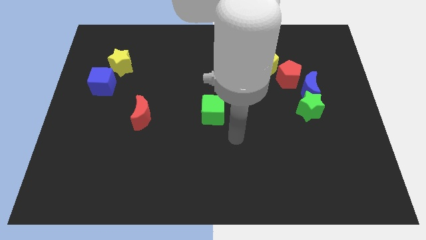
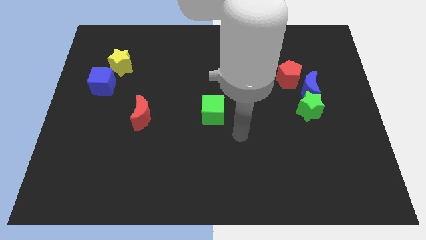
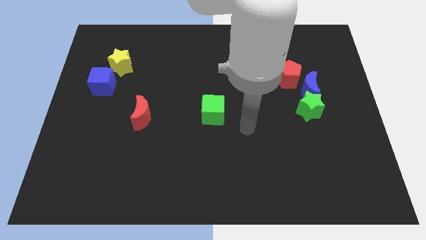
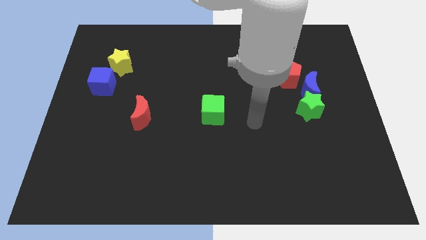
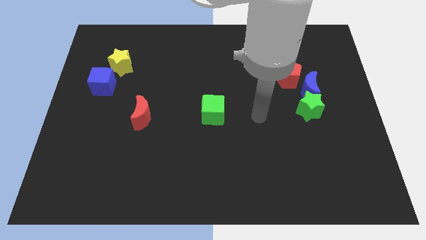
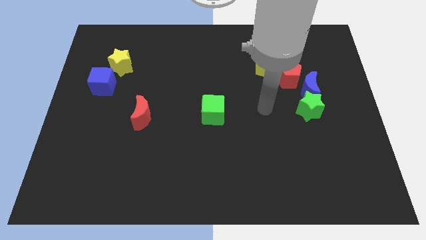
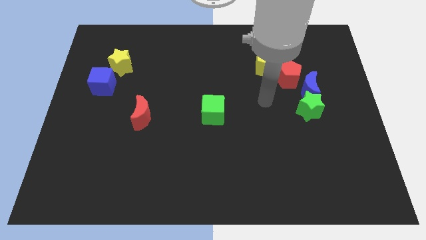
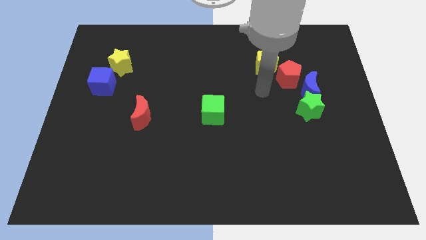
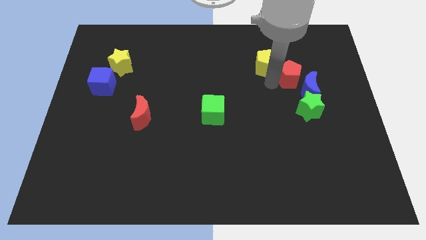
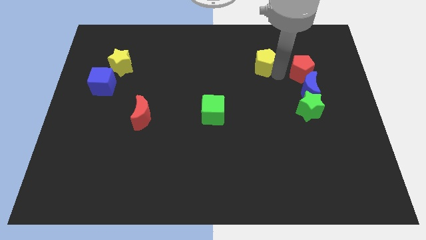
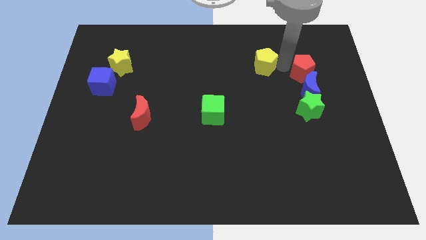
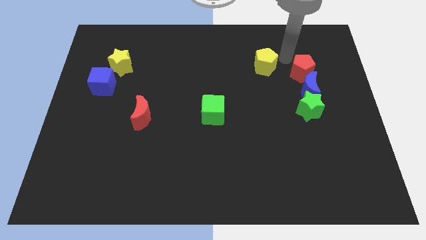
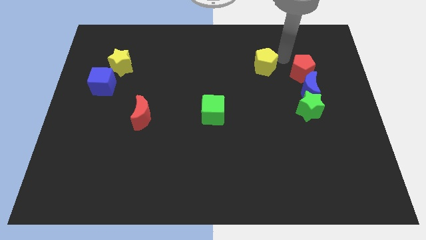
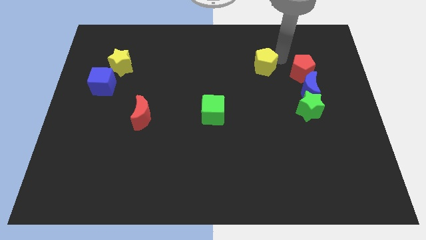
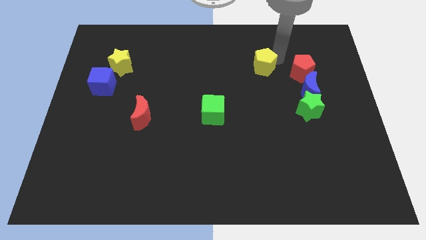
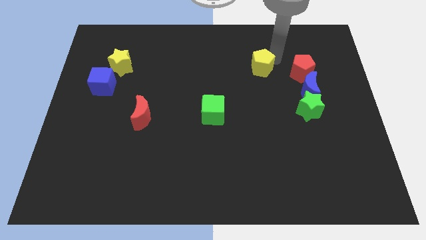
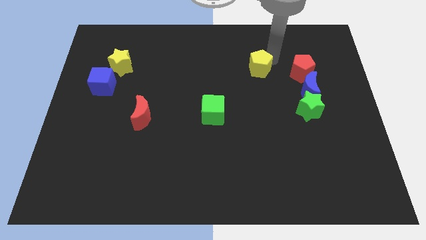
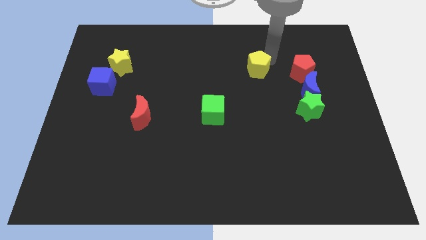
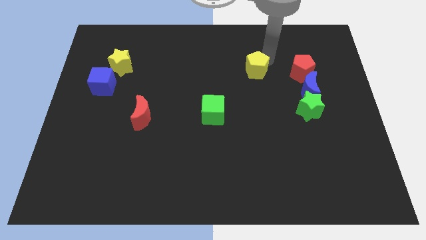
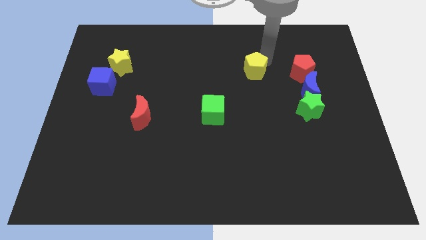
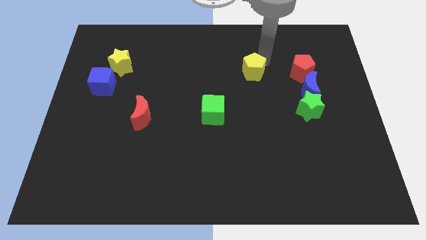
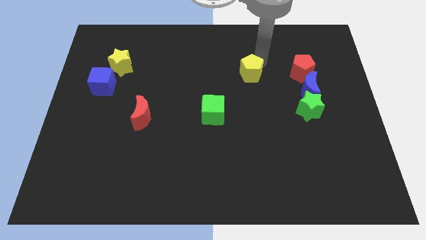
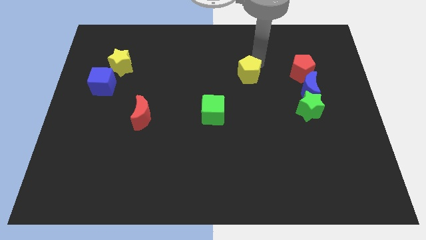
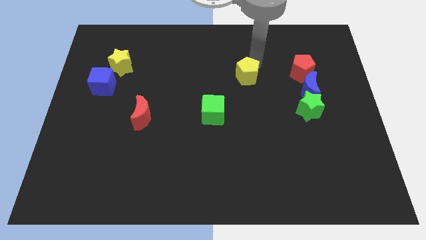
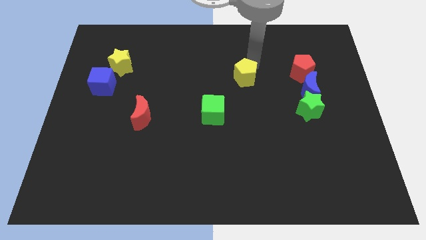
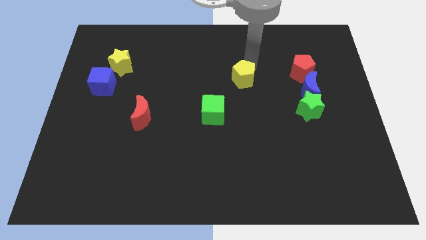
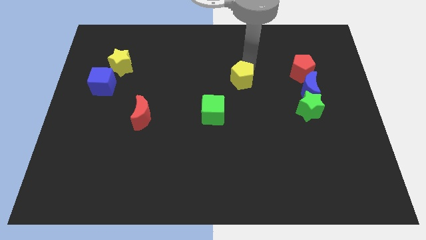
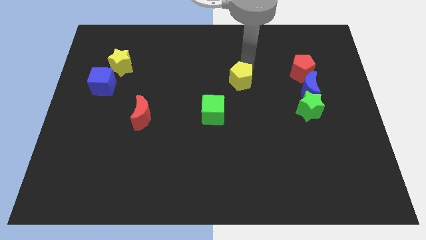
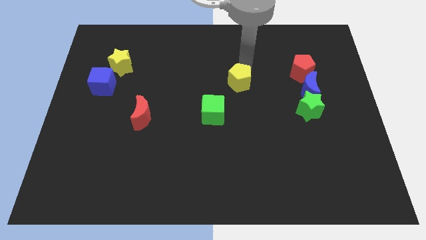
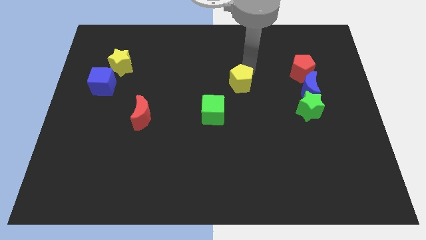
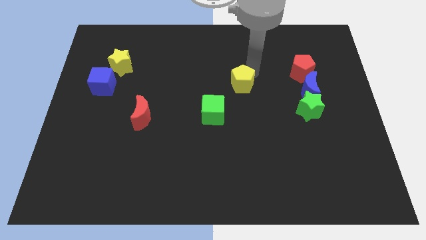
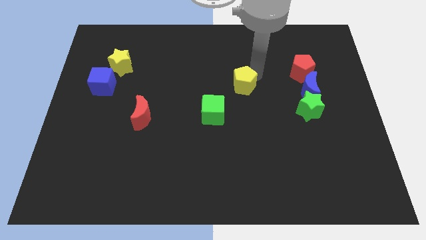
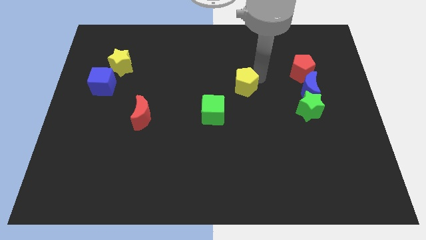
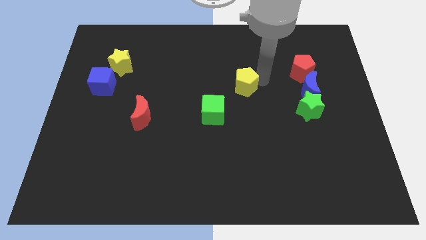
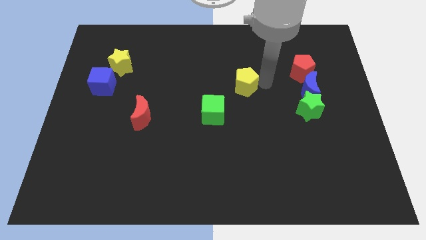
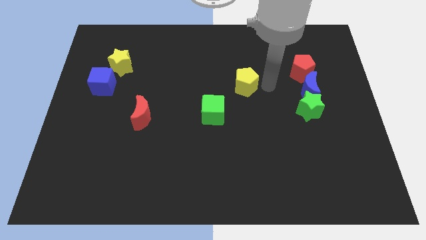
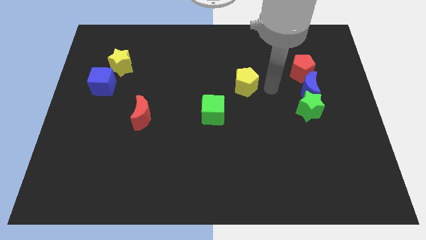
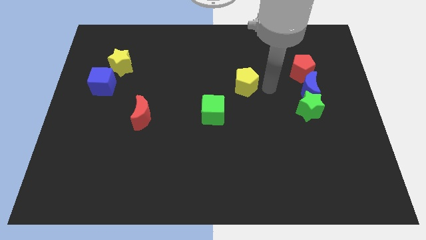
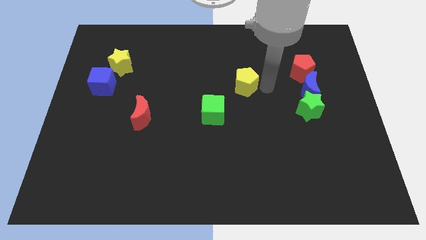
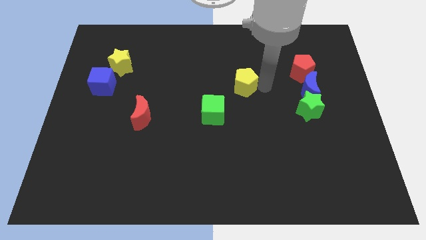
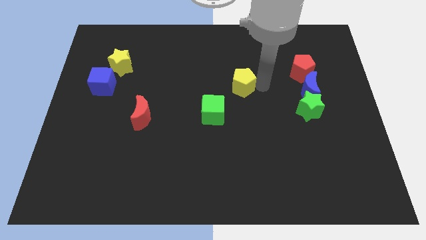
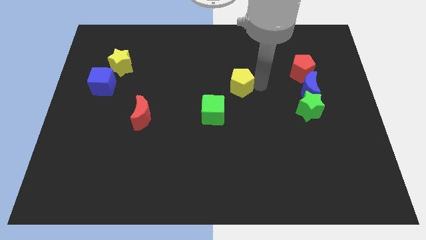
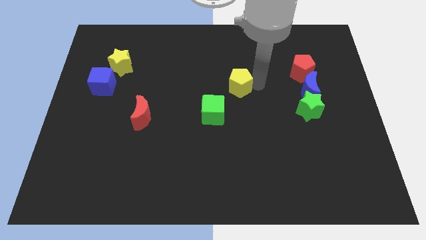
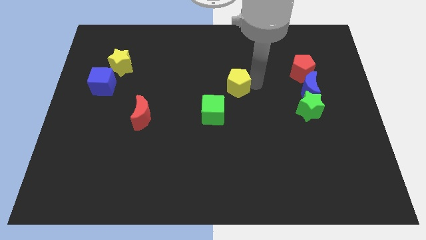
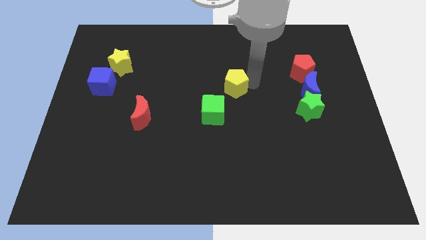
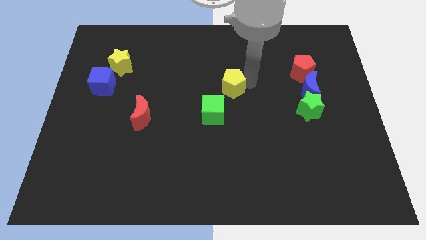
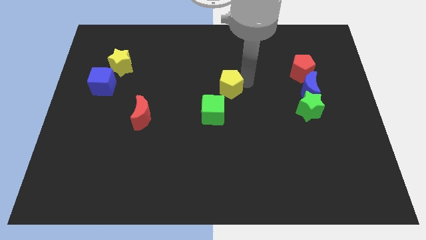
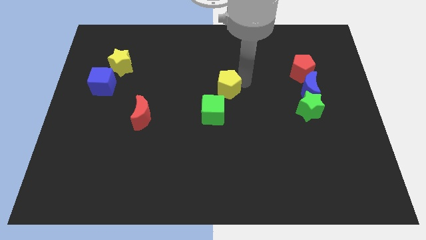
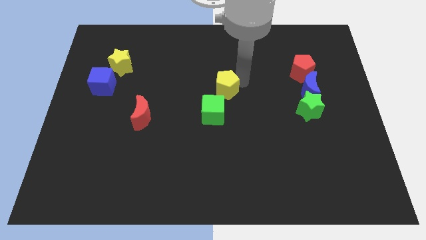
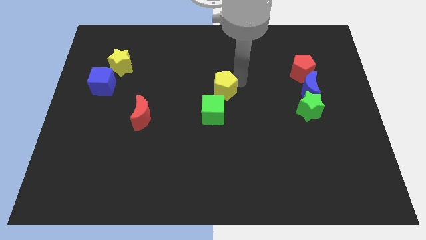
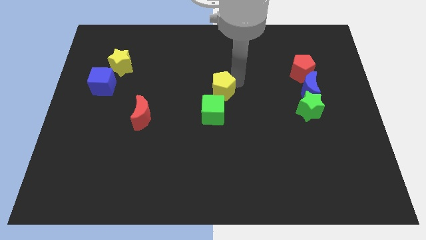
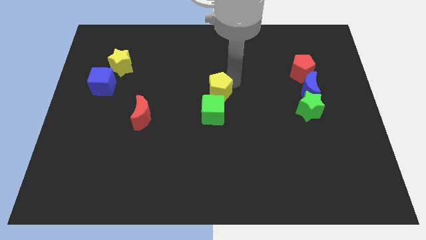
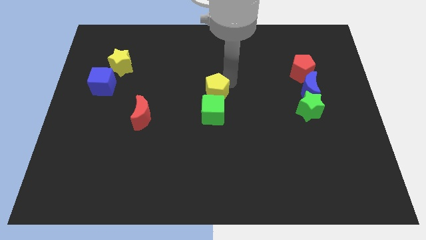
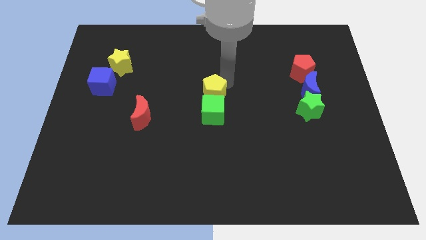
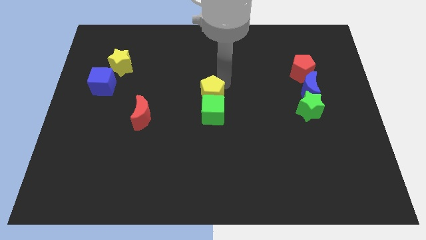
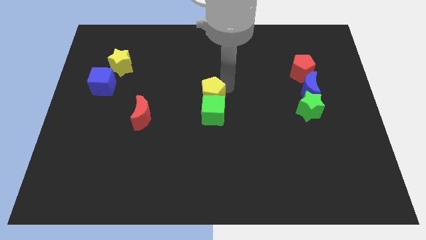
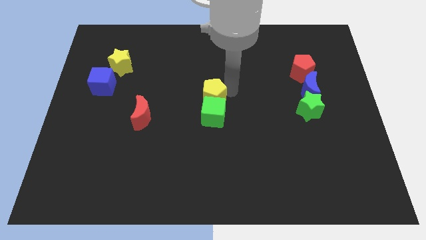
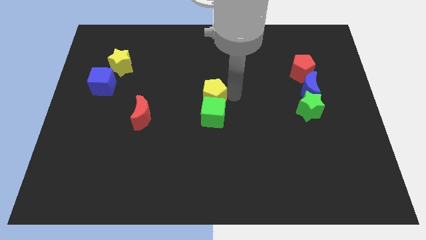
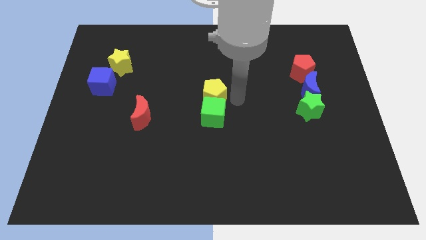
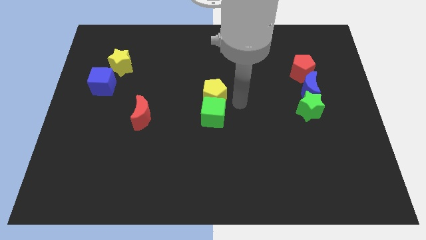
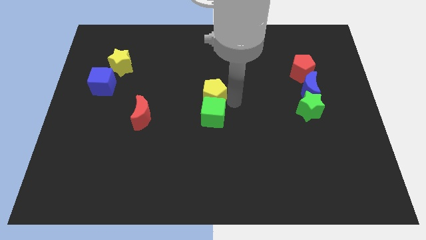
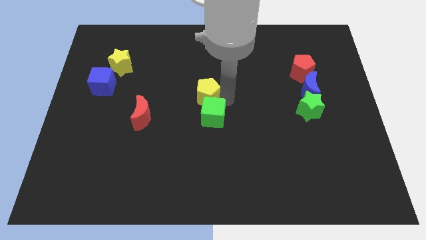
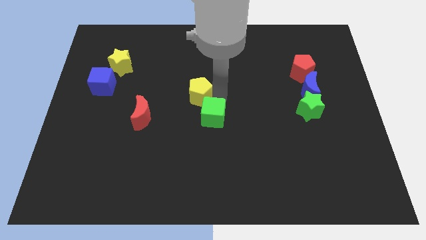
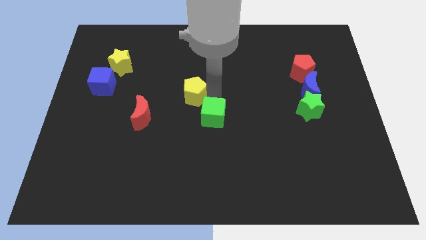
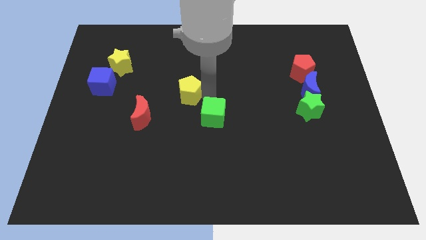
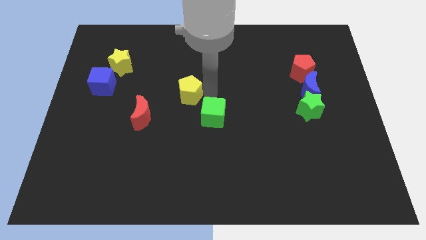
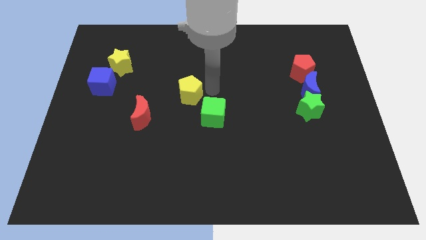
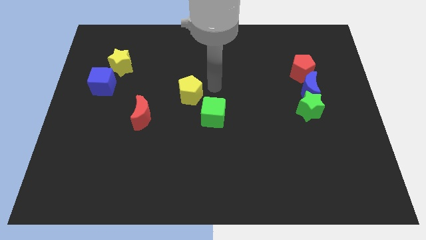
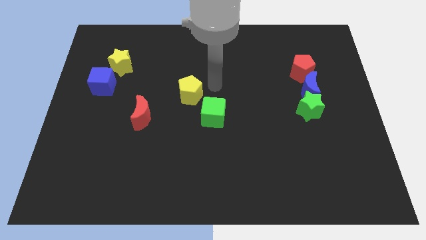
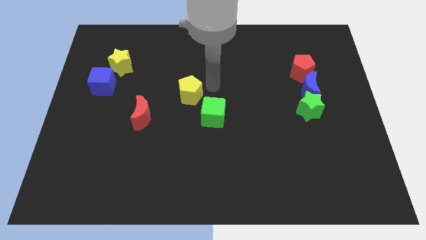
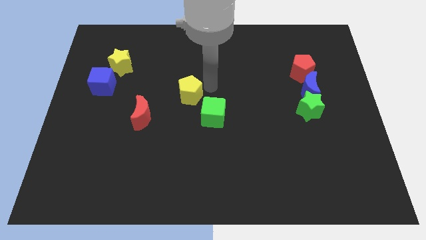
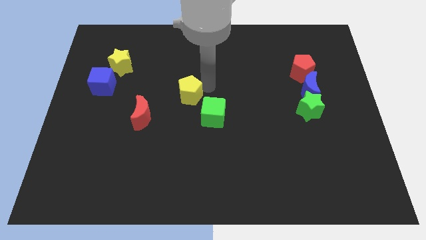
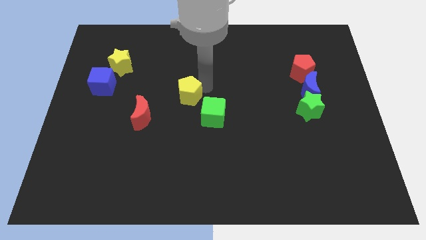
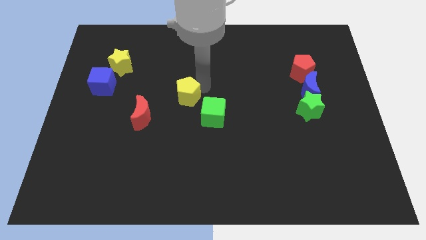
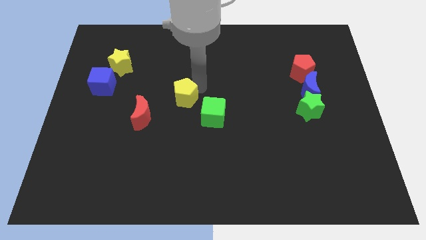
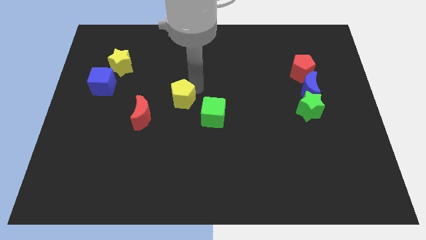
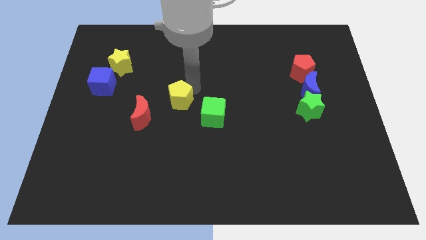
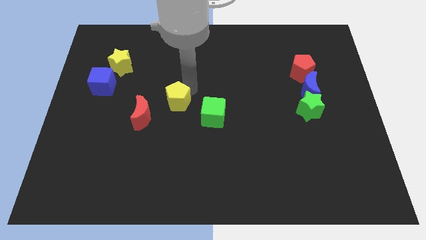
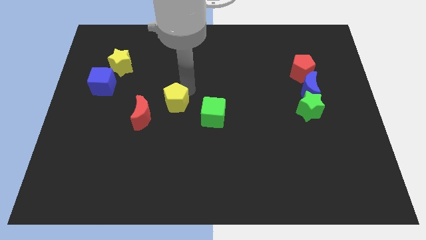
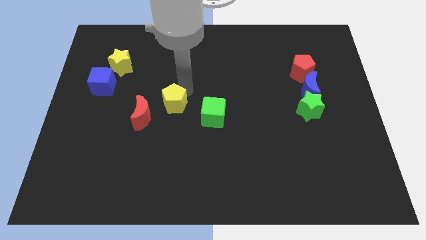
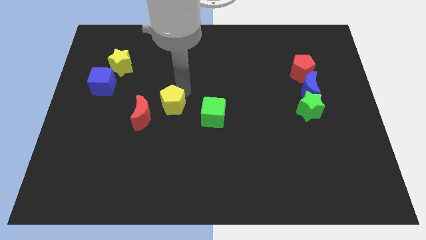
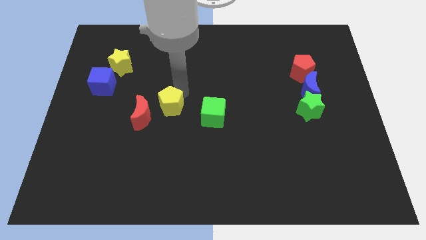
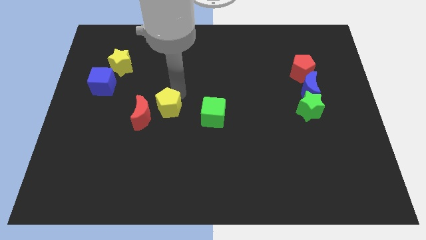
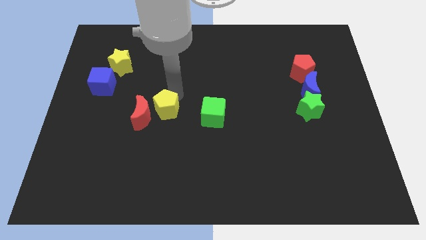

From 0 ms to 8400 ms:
put the yellow pentagon next to the red moon
